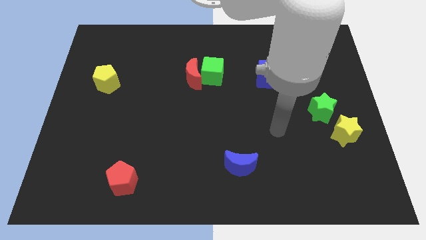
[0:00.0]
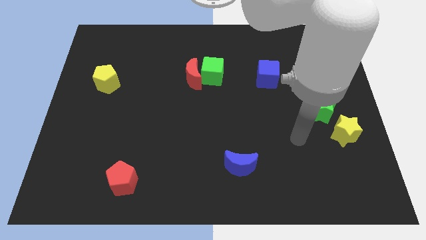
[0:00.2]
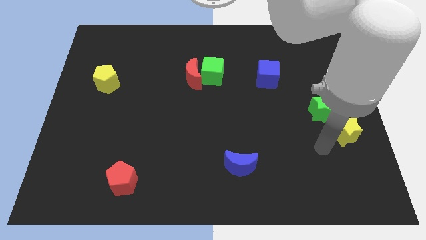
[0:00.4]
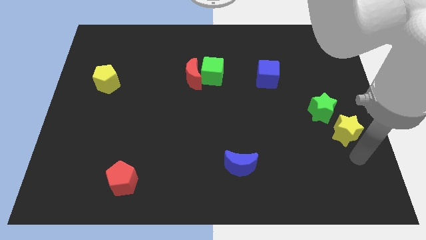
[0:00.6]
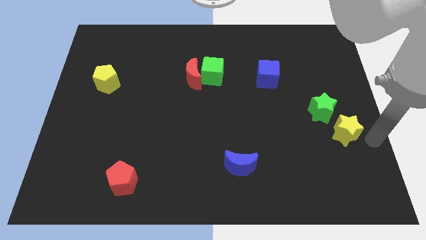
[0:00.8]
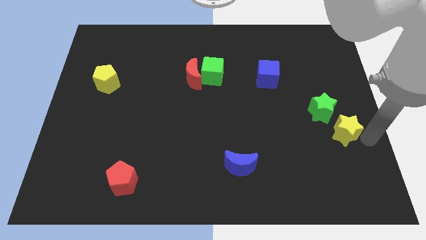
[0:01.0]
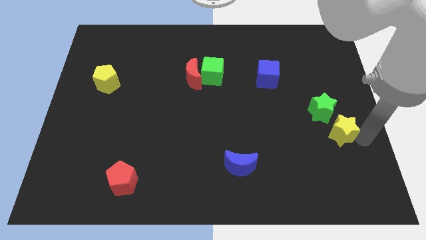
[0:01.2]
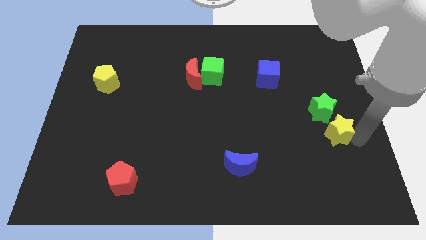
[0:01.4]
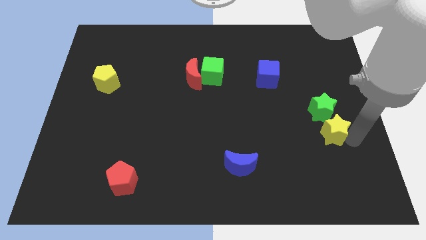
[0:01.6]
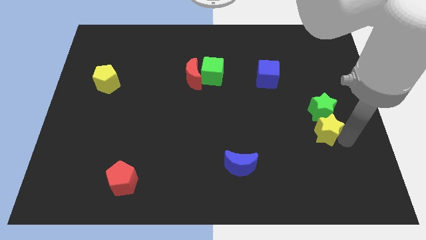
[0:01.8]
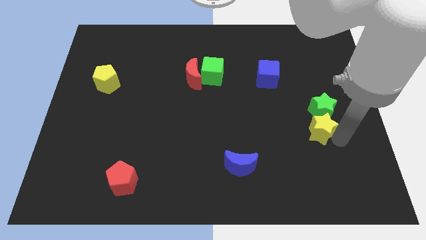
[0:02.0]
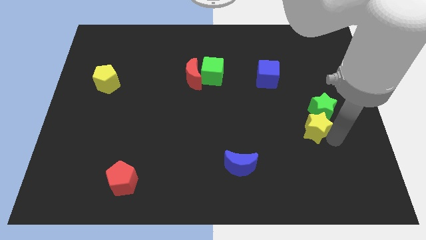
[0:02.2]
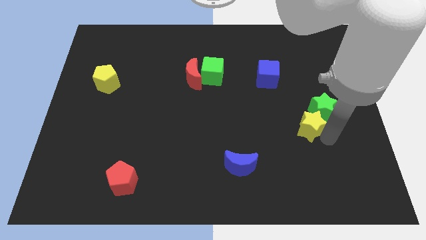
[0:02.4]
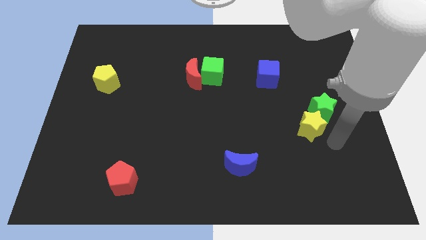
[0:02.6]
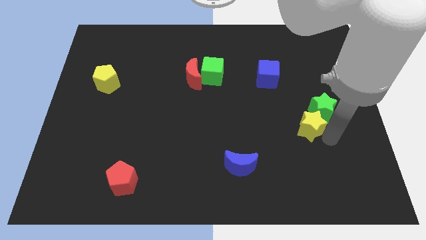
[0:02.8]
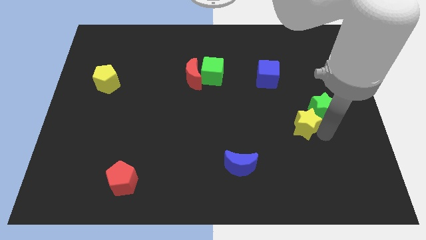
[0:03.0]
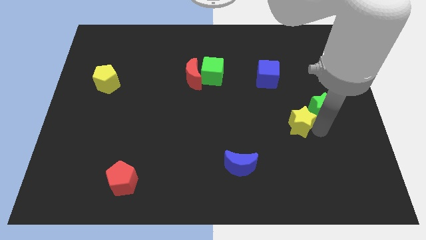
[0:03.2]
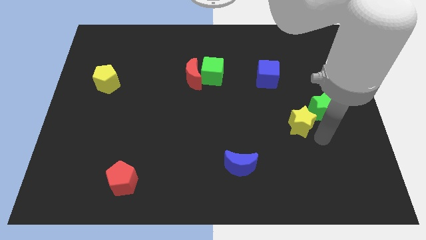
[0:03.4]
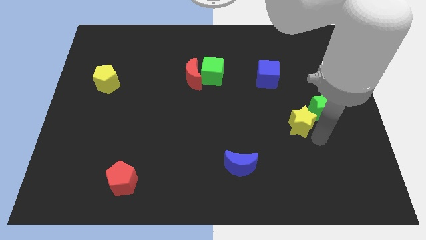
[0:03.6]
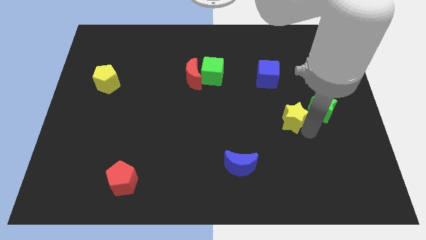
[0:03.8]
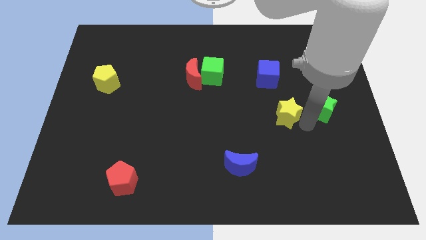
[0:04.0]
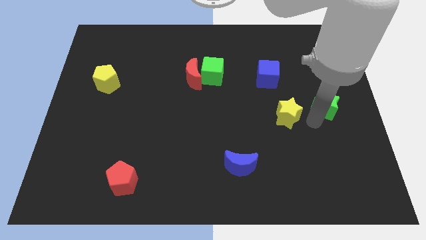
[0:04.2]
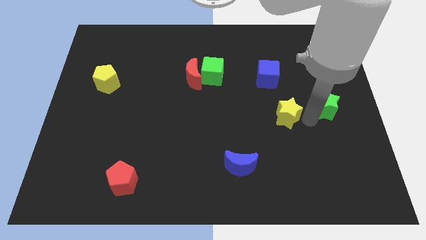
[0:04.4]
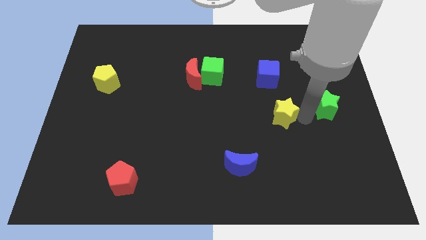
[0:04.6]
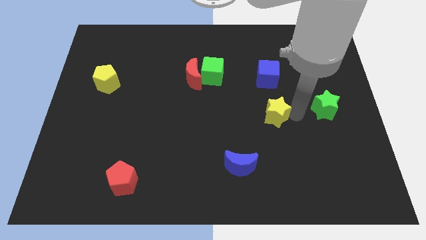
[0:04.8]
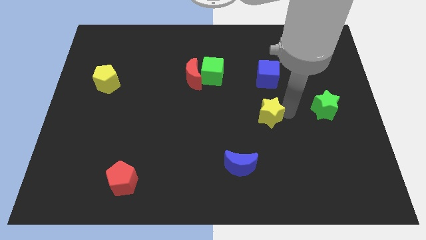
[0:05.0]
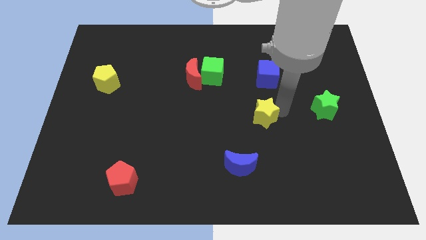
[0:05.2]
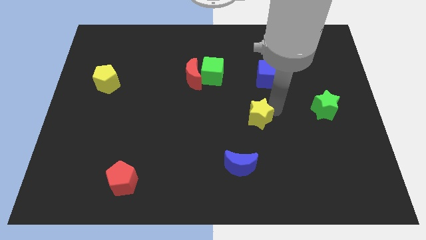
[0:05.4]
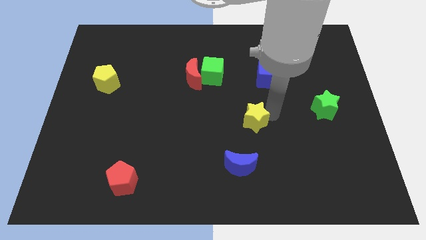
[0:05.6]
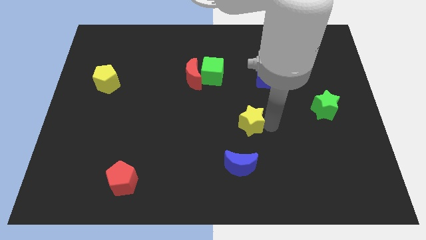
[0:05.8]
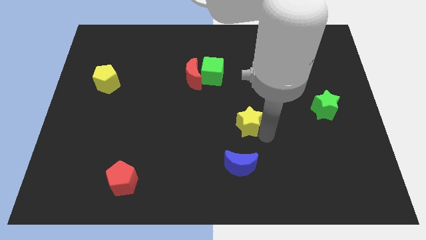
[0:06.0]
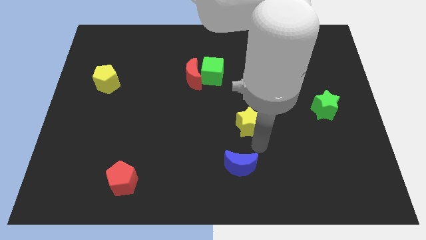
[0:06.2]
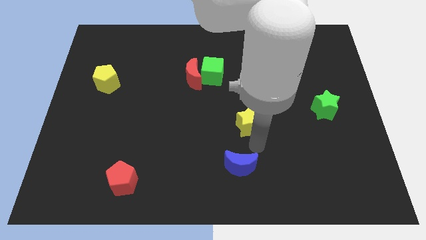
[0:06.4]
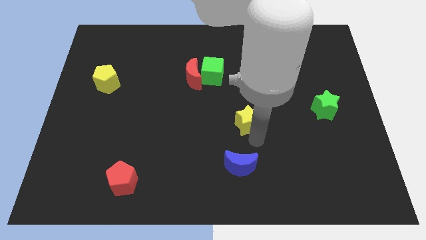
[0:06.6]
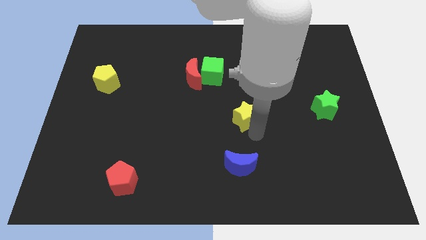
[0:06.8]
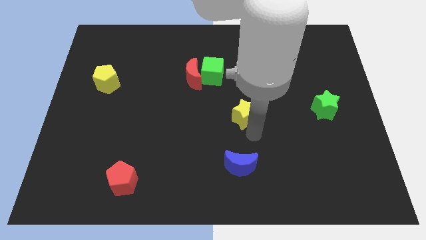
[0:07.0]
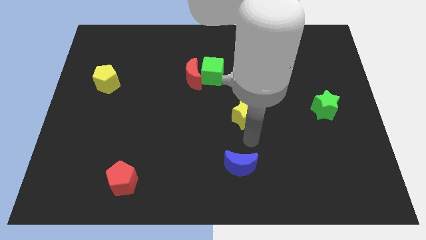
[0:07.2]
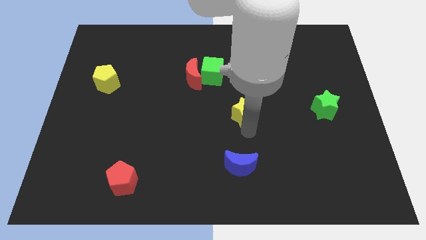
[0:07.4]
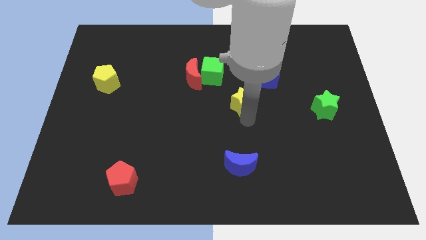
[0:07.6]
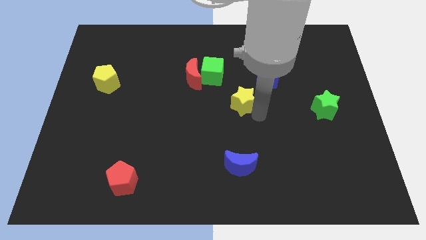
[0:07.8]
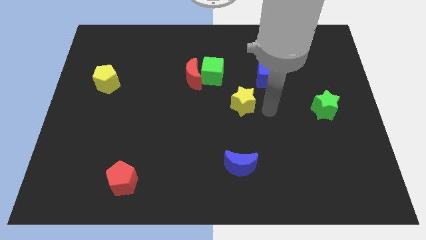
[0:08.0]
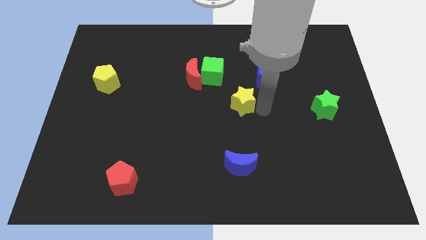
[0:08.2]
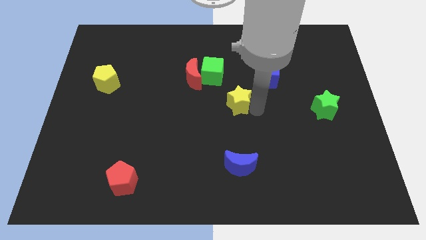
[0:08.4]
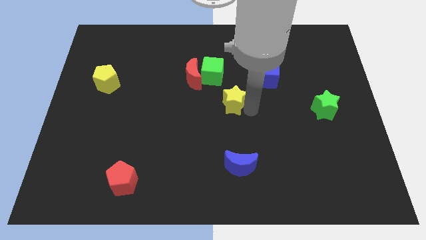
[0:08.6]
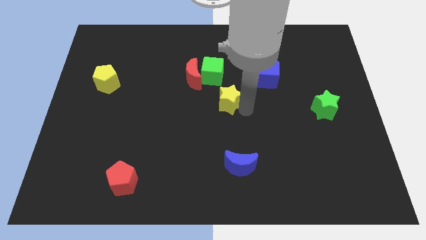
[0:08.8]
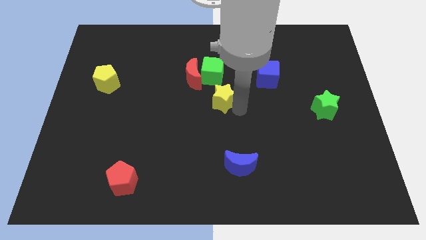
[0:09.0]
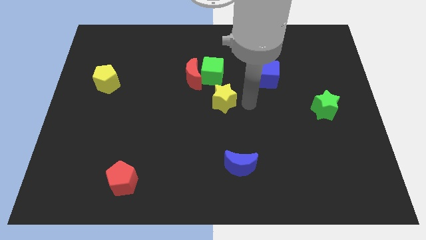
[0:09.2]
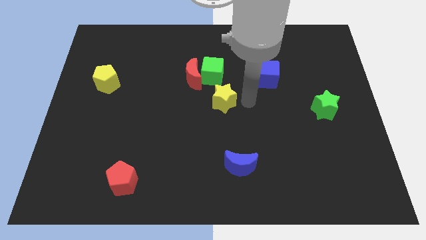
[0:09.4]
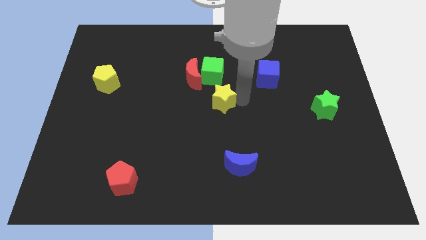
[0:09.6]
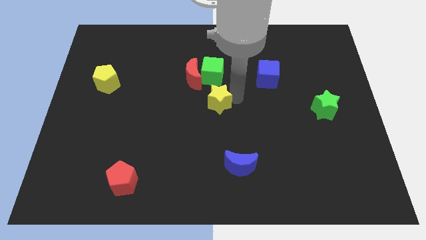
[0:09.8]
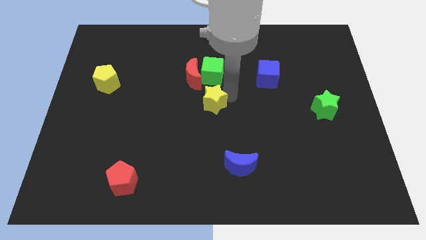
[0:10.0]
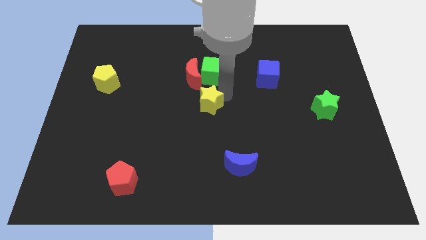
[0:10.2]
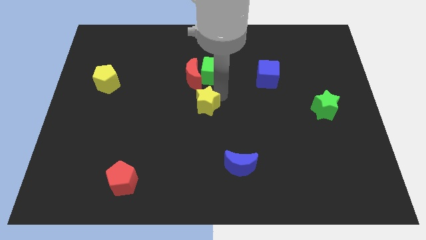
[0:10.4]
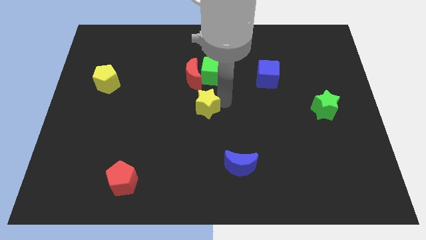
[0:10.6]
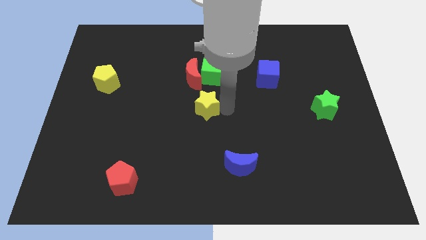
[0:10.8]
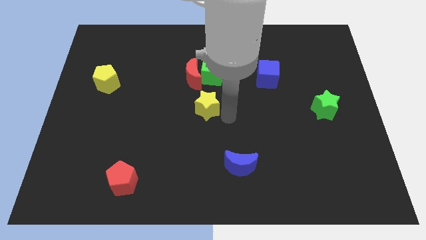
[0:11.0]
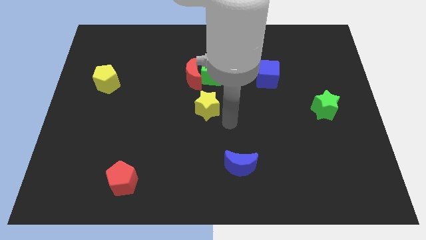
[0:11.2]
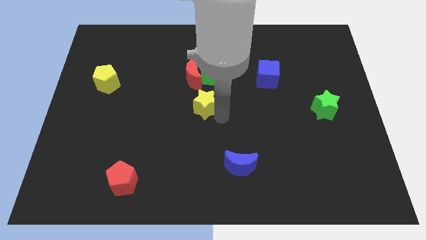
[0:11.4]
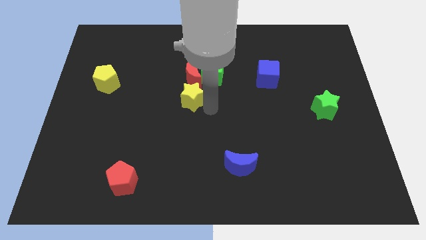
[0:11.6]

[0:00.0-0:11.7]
put the yellow star to the bottom left of the red moon

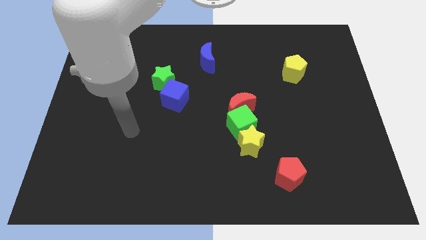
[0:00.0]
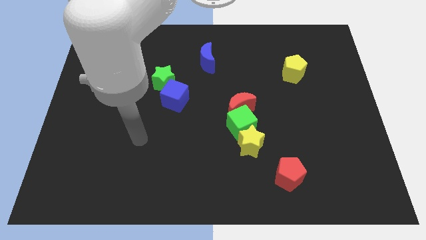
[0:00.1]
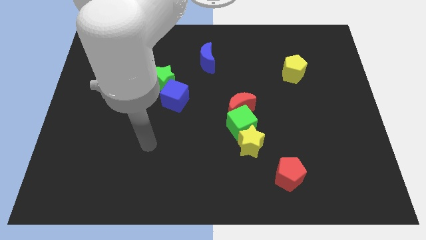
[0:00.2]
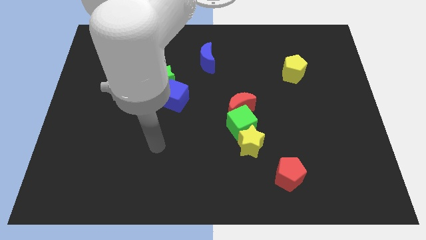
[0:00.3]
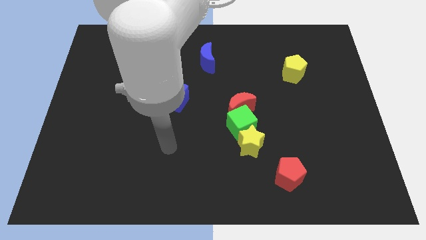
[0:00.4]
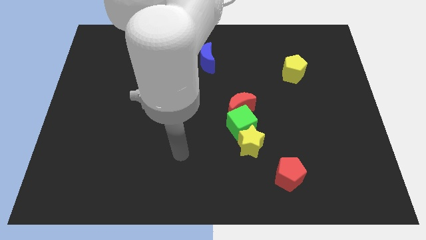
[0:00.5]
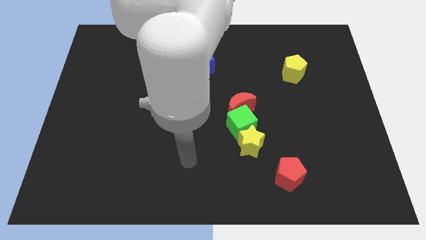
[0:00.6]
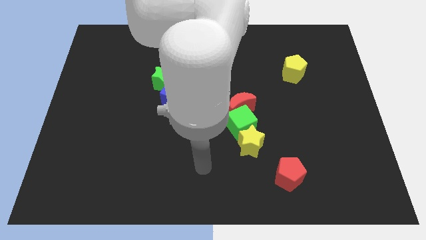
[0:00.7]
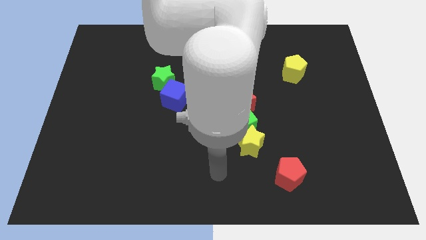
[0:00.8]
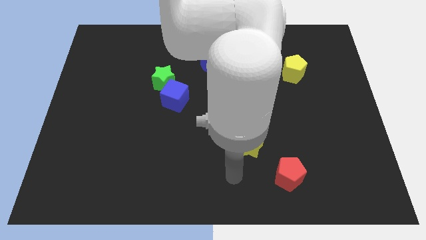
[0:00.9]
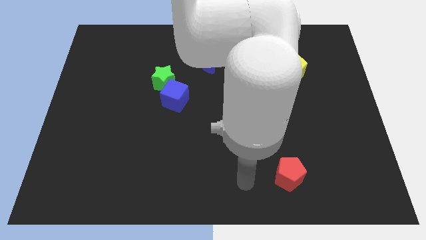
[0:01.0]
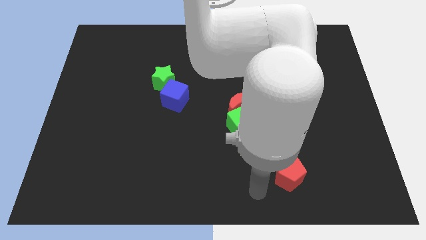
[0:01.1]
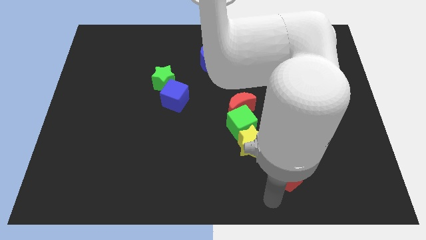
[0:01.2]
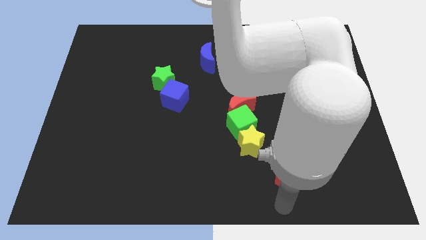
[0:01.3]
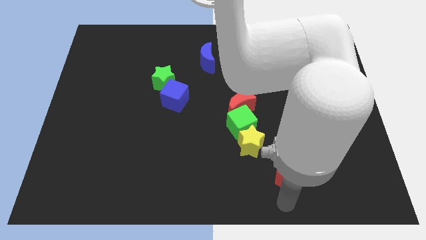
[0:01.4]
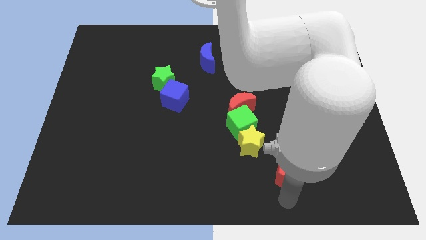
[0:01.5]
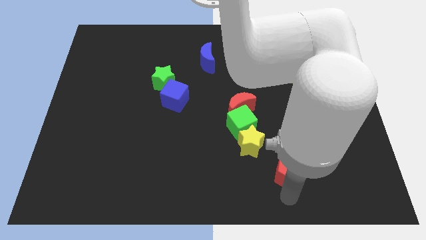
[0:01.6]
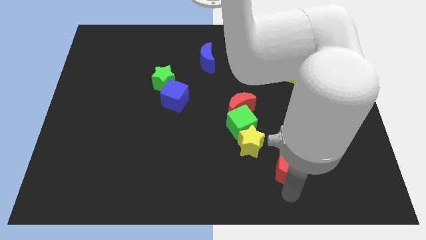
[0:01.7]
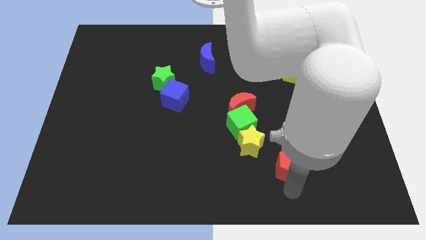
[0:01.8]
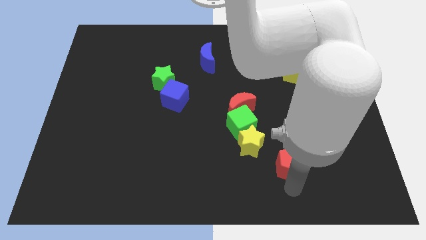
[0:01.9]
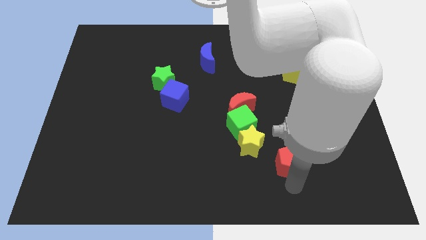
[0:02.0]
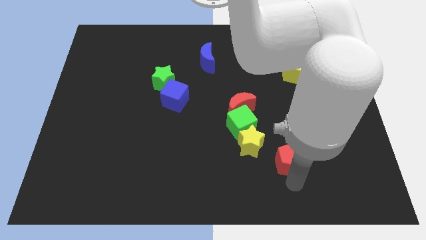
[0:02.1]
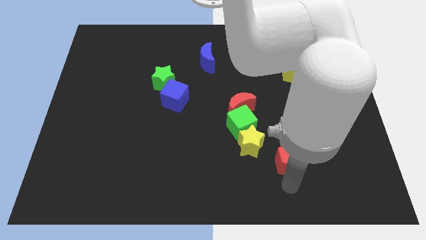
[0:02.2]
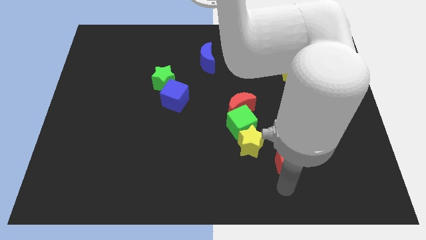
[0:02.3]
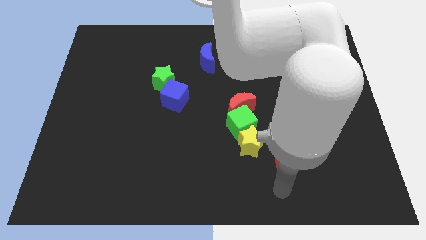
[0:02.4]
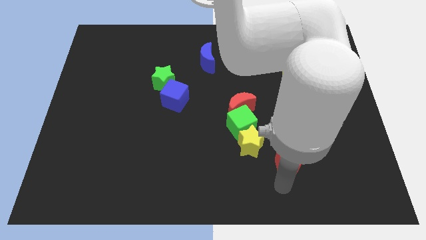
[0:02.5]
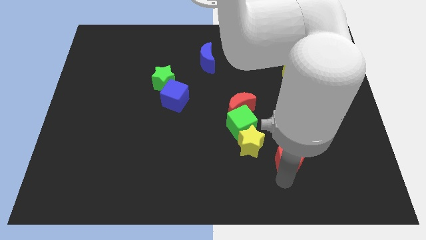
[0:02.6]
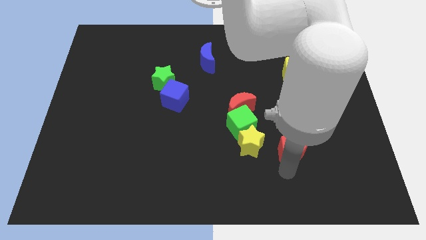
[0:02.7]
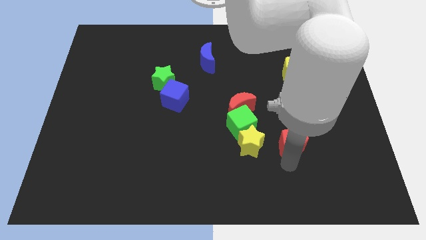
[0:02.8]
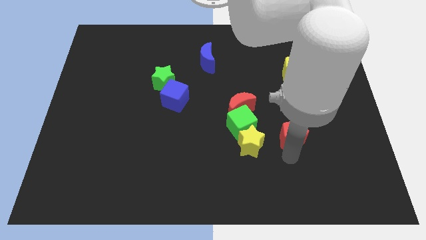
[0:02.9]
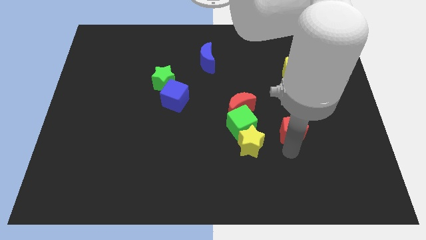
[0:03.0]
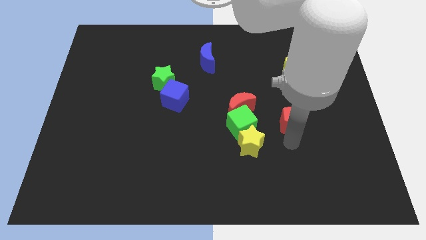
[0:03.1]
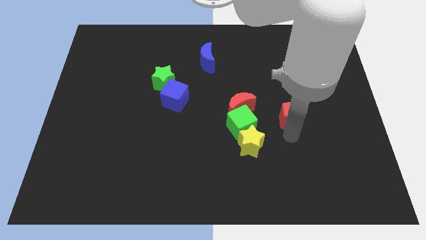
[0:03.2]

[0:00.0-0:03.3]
put the red pentagon to the bottom side of the yellow pentagon
